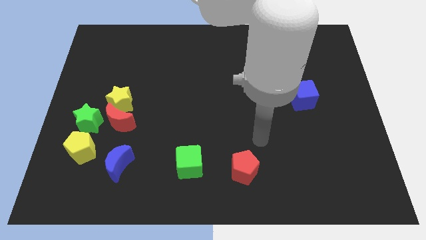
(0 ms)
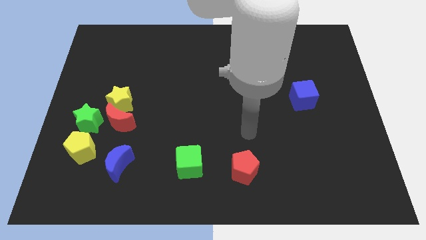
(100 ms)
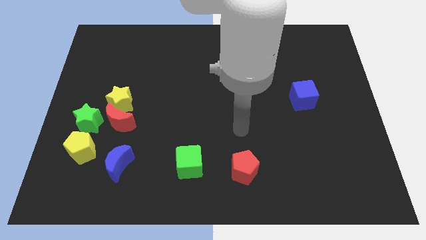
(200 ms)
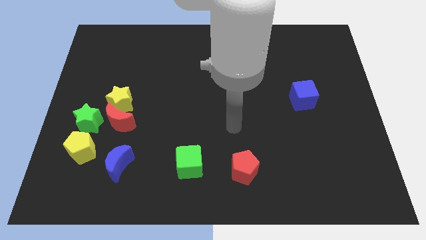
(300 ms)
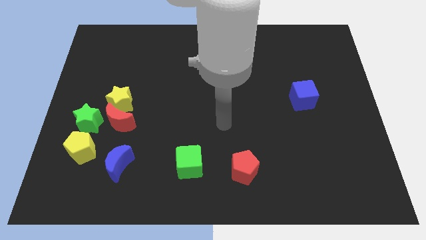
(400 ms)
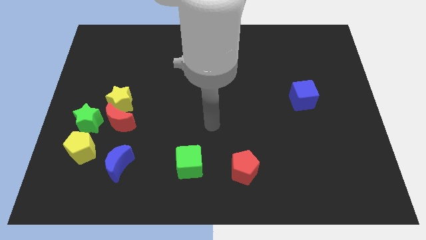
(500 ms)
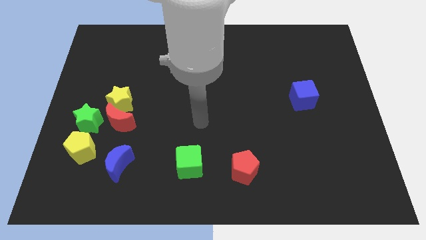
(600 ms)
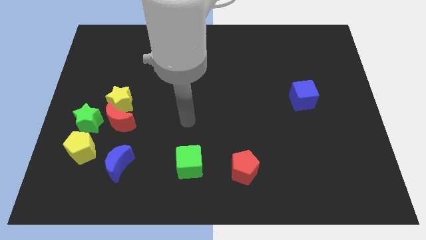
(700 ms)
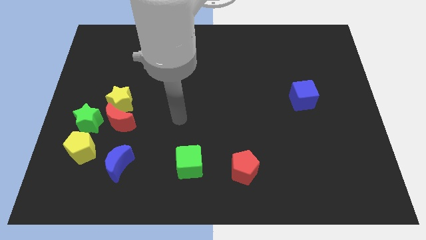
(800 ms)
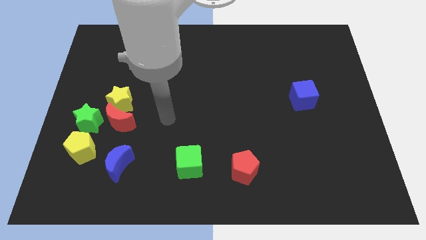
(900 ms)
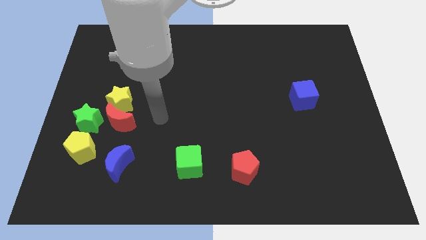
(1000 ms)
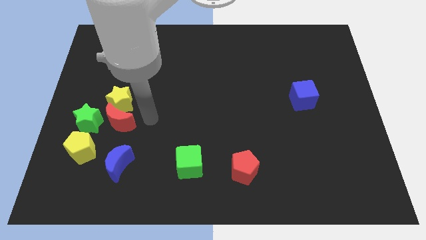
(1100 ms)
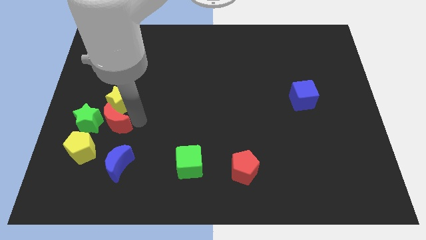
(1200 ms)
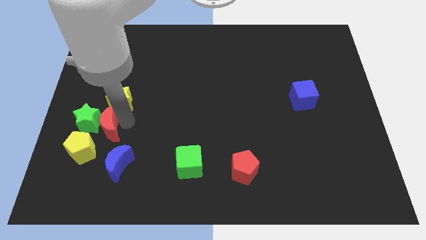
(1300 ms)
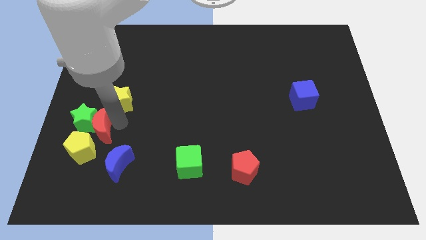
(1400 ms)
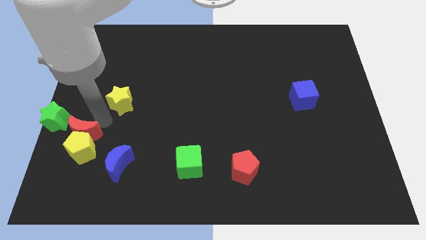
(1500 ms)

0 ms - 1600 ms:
move the yellow star away from the red moon and green star

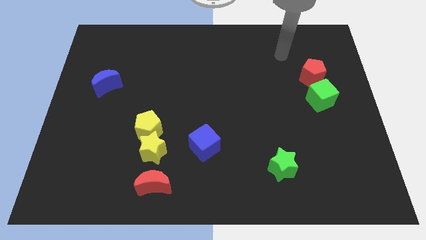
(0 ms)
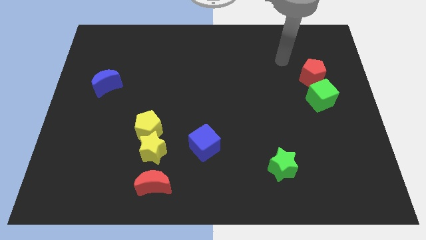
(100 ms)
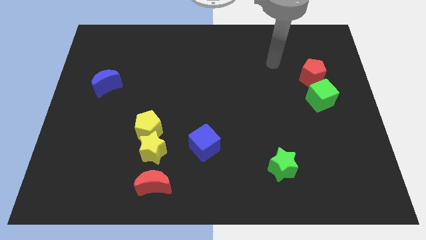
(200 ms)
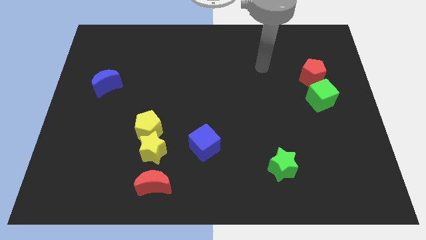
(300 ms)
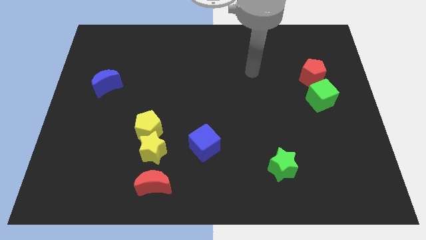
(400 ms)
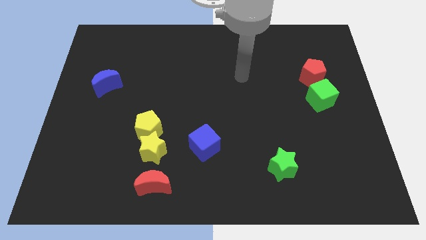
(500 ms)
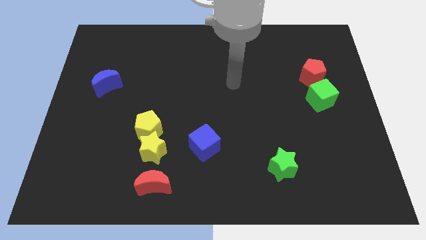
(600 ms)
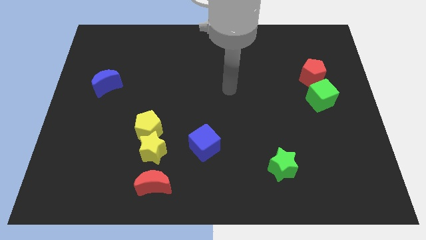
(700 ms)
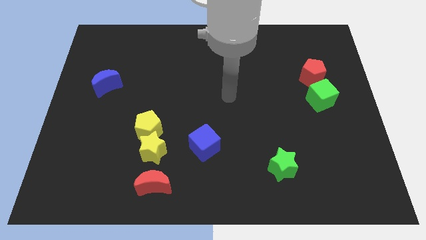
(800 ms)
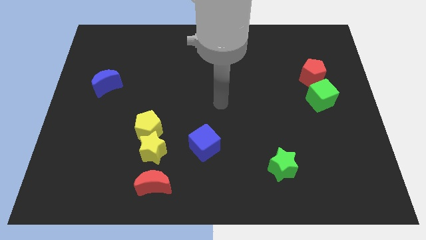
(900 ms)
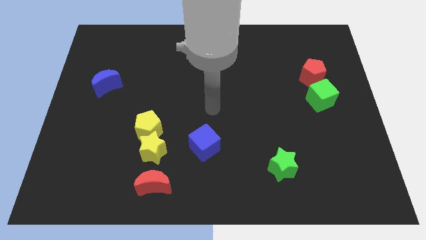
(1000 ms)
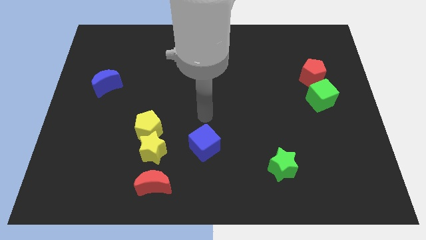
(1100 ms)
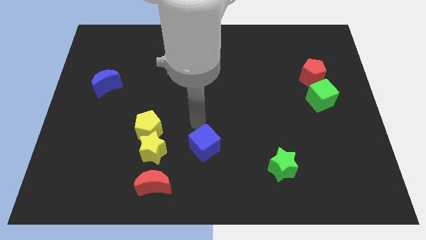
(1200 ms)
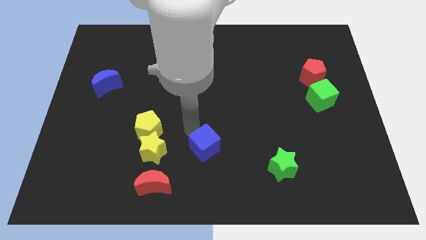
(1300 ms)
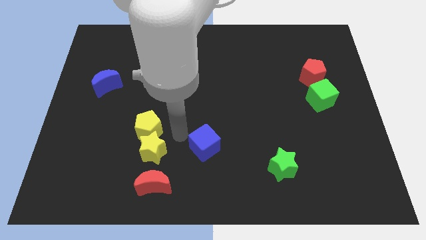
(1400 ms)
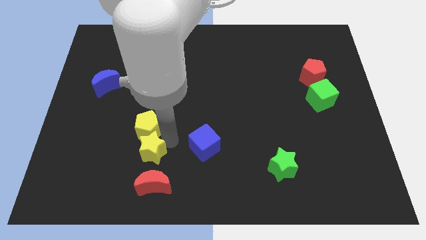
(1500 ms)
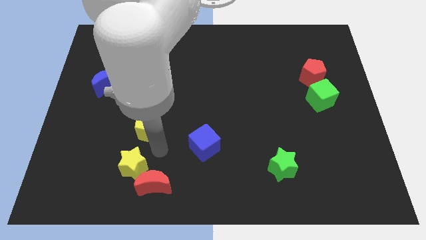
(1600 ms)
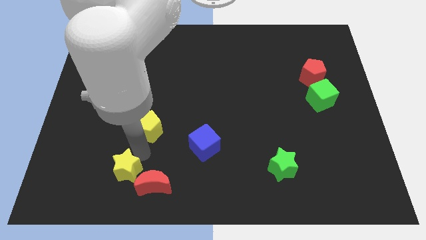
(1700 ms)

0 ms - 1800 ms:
move the yellow pentagon away from the yellow star

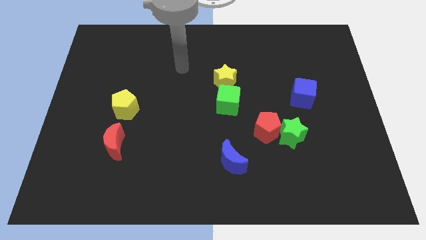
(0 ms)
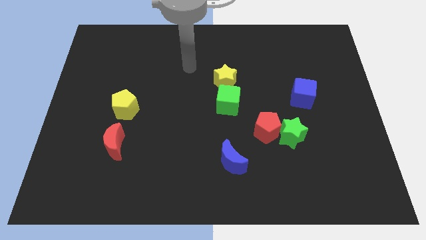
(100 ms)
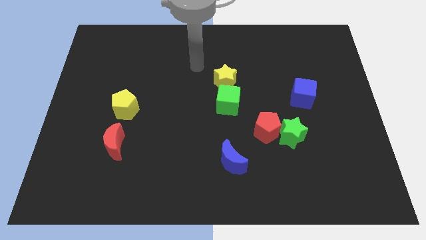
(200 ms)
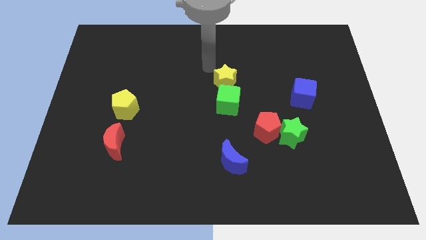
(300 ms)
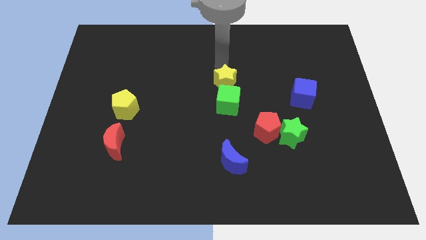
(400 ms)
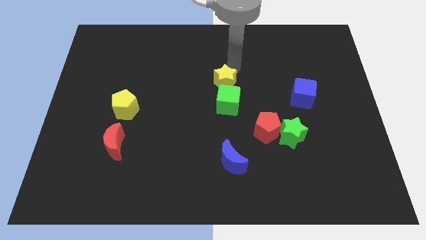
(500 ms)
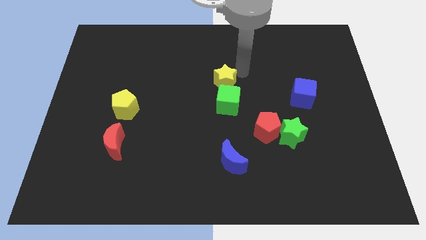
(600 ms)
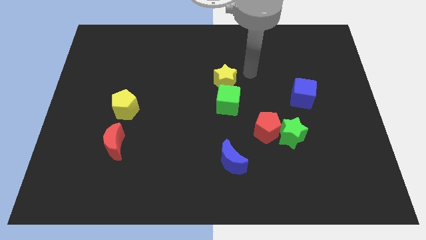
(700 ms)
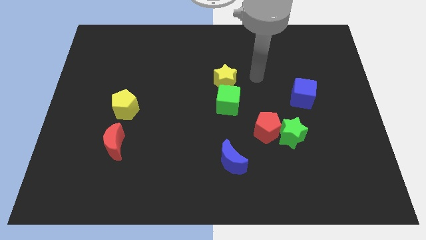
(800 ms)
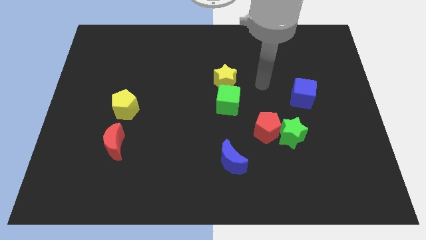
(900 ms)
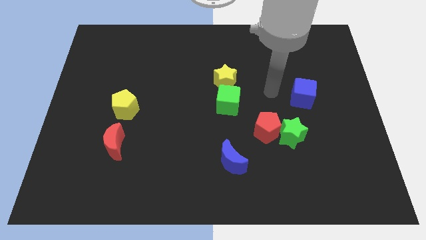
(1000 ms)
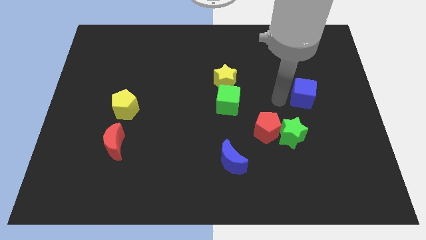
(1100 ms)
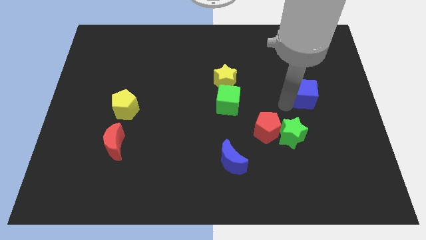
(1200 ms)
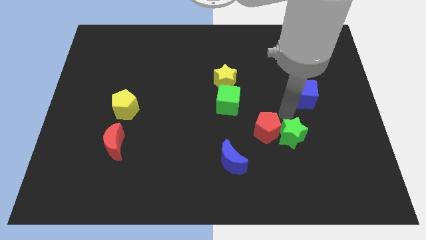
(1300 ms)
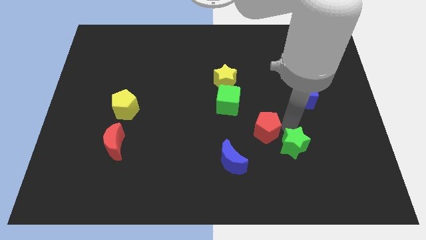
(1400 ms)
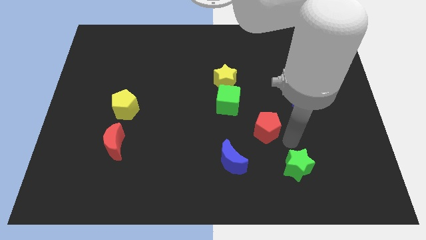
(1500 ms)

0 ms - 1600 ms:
separate the red pentagon from the green star

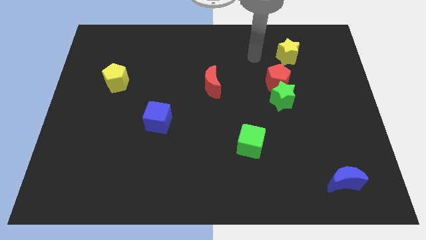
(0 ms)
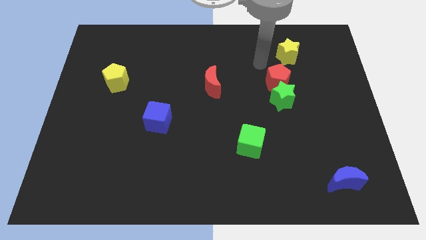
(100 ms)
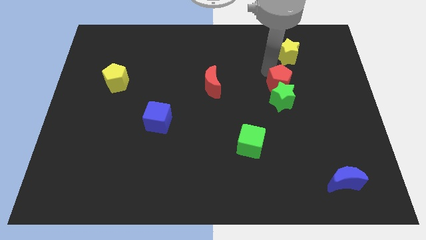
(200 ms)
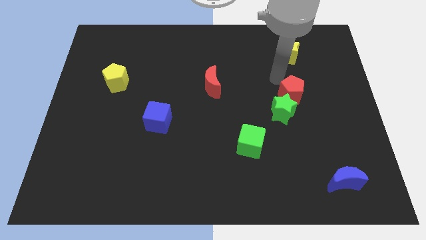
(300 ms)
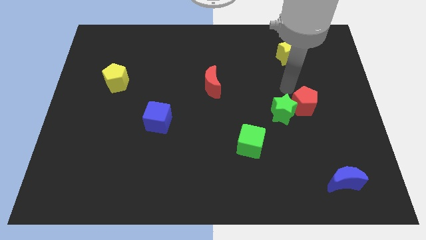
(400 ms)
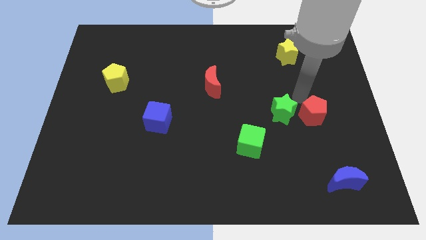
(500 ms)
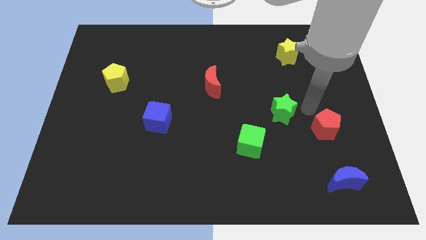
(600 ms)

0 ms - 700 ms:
pull the green star apart from the red pentagon

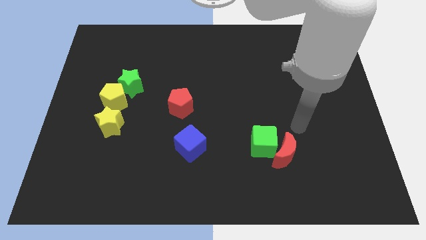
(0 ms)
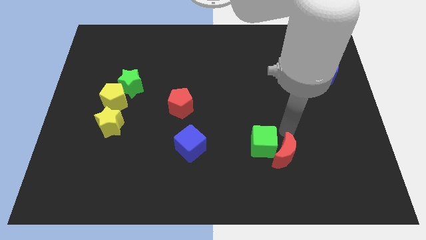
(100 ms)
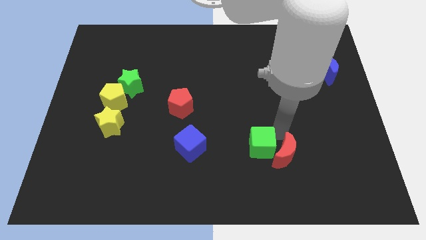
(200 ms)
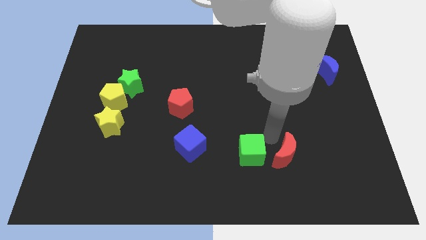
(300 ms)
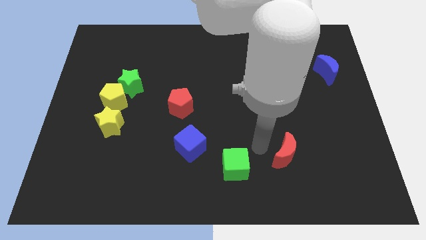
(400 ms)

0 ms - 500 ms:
pull the red moon apart from the green cube

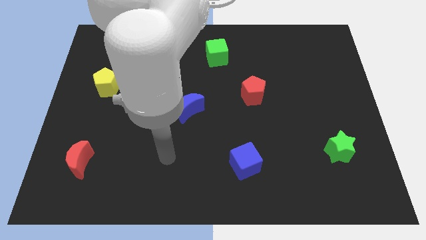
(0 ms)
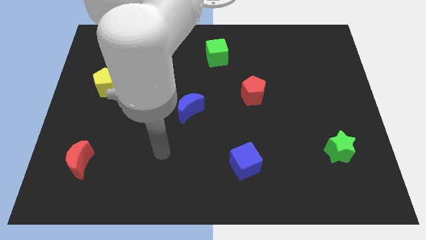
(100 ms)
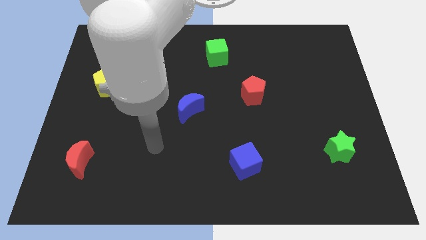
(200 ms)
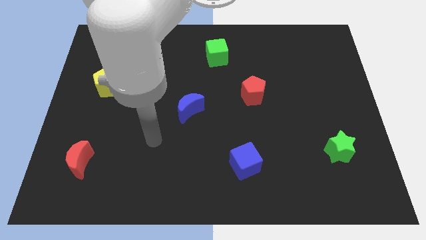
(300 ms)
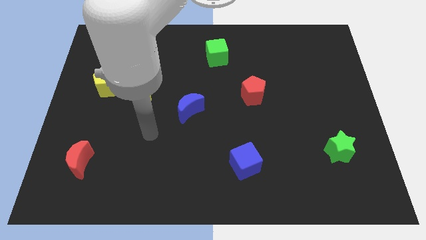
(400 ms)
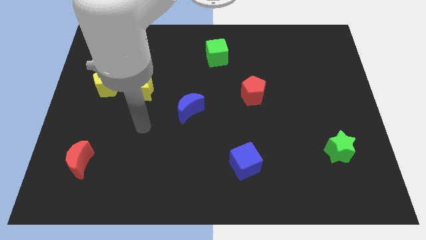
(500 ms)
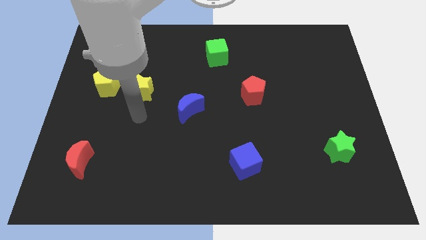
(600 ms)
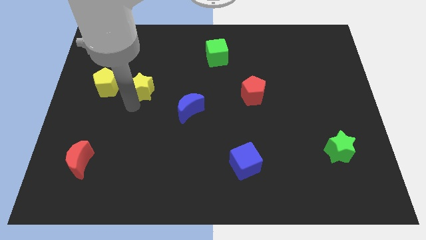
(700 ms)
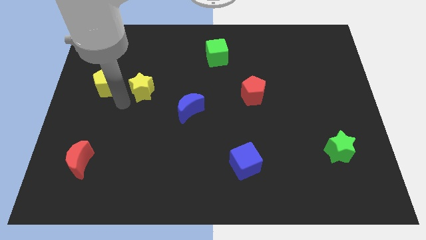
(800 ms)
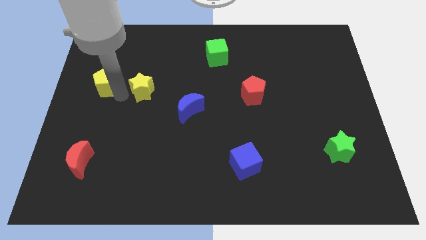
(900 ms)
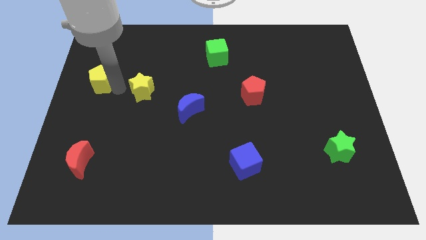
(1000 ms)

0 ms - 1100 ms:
pull the yellow star apart from the yellow pentagon

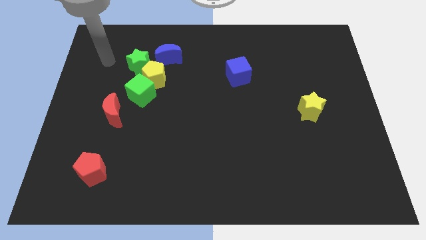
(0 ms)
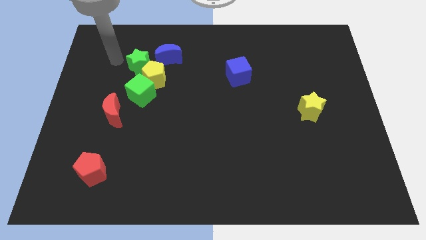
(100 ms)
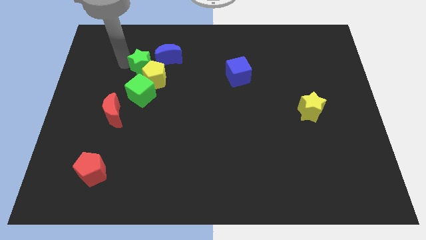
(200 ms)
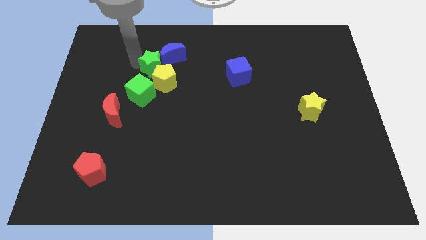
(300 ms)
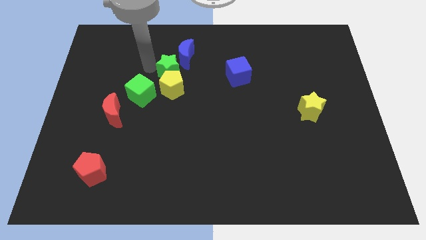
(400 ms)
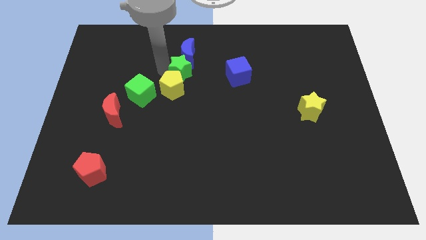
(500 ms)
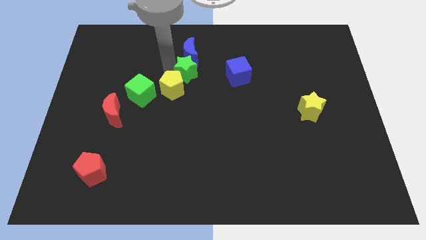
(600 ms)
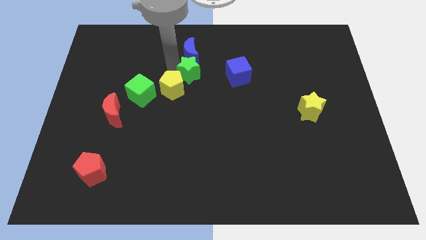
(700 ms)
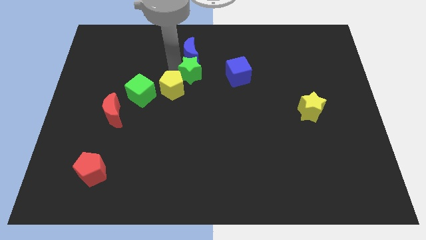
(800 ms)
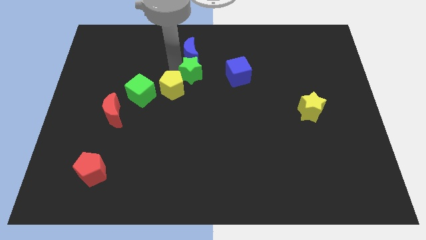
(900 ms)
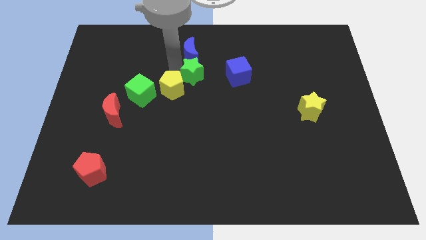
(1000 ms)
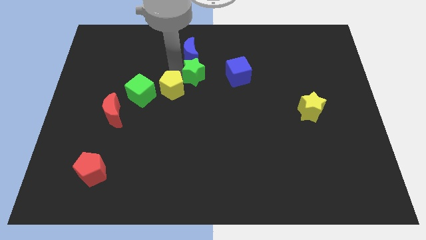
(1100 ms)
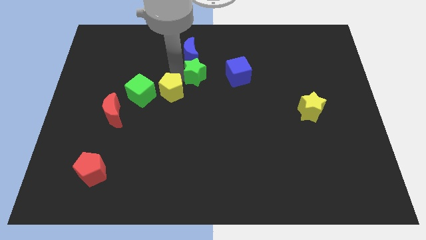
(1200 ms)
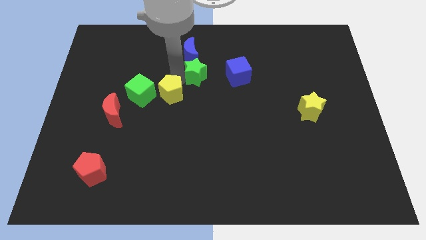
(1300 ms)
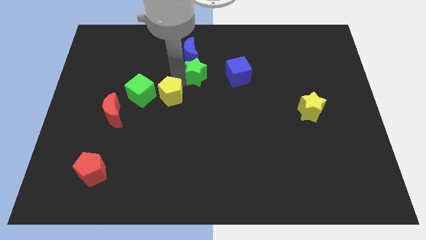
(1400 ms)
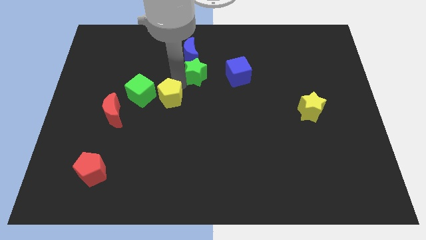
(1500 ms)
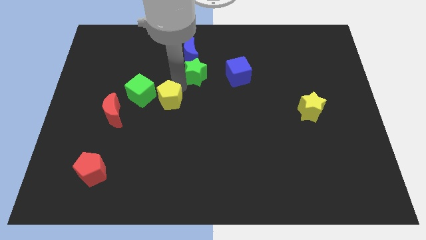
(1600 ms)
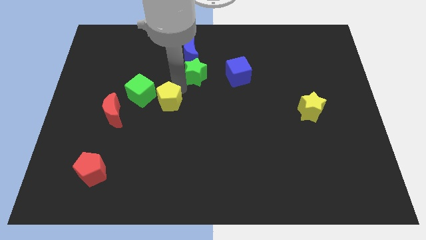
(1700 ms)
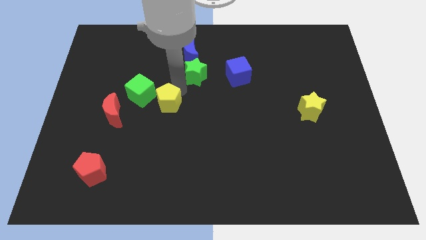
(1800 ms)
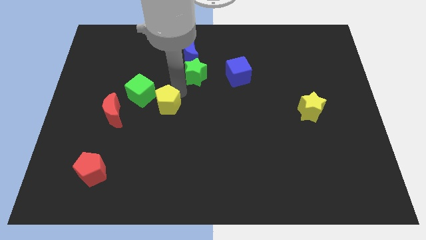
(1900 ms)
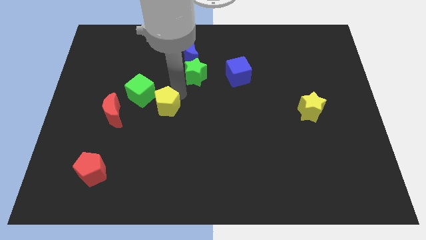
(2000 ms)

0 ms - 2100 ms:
separate the yellow pentagon from the group of blocks
